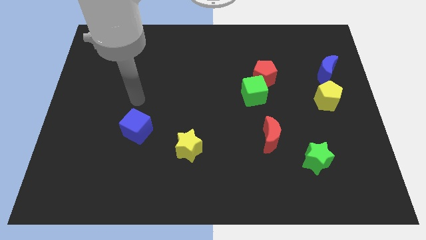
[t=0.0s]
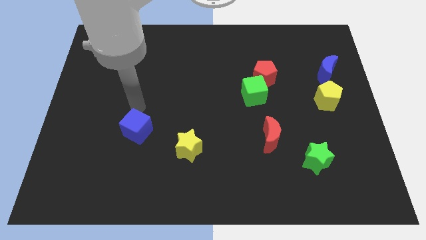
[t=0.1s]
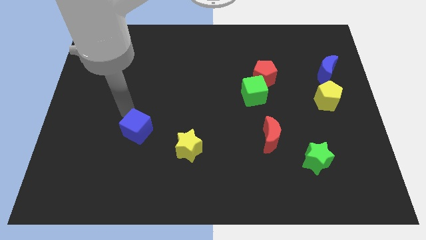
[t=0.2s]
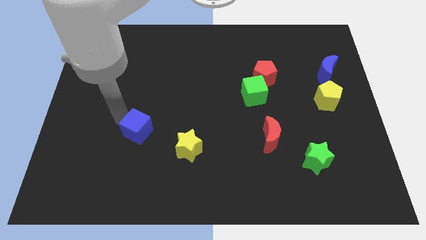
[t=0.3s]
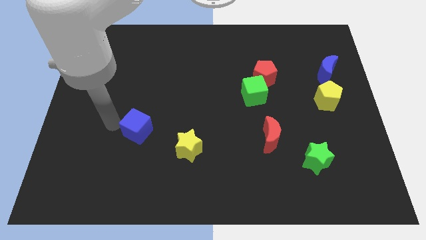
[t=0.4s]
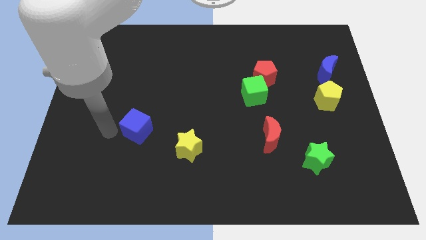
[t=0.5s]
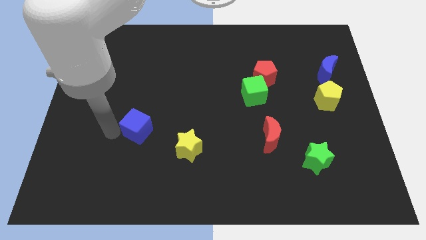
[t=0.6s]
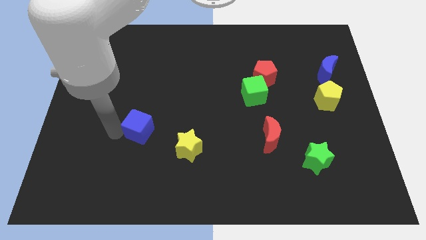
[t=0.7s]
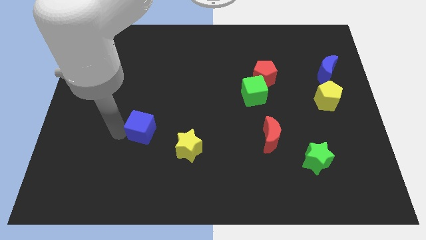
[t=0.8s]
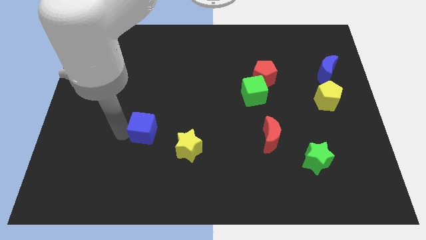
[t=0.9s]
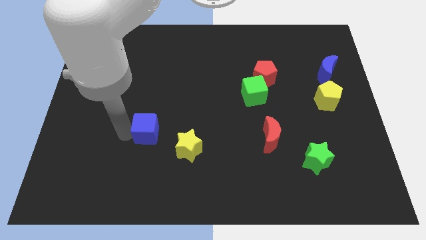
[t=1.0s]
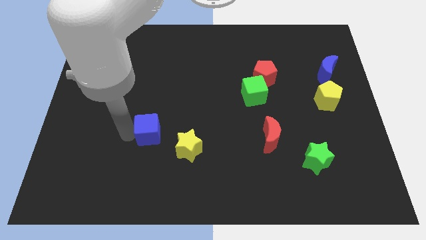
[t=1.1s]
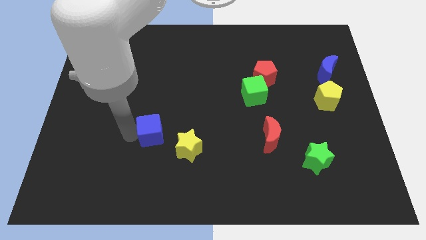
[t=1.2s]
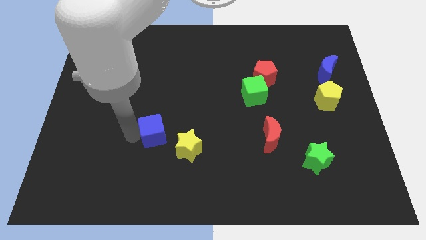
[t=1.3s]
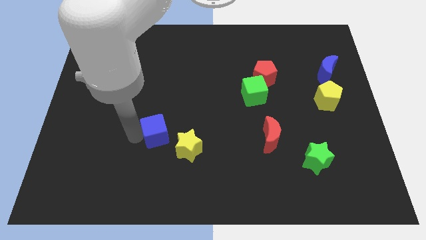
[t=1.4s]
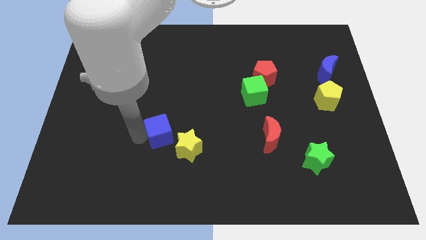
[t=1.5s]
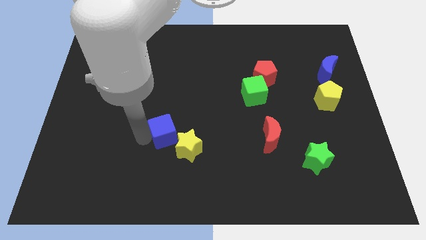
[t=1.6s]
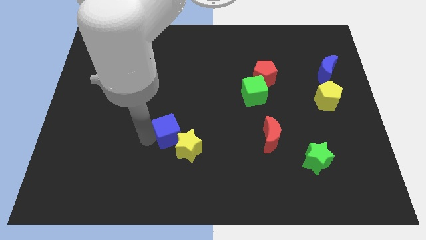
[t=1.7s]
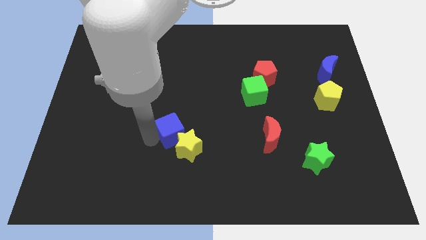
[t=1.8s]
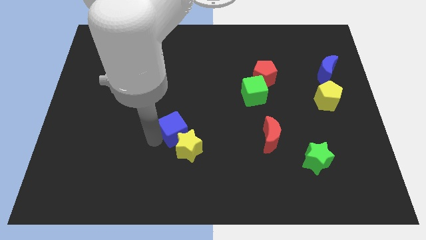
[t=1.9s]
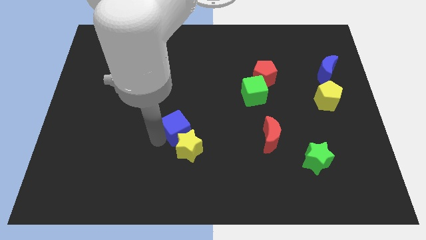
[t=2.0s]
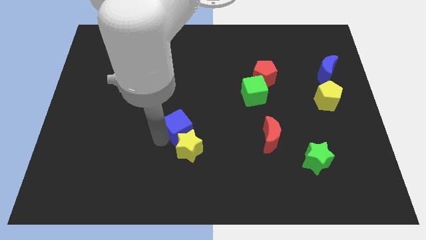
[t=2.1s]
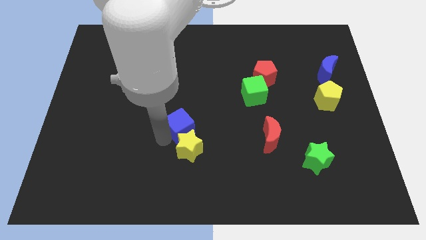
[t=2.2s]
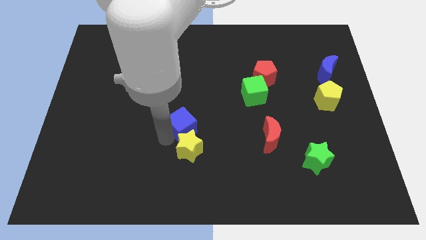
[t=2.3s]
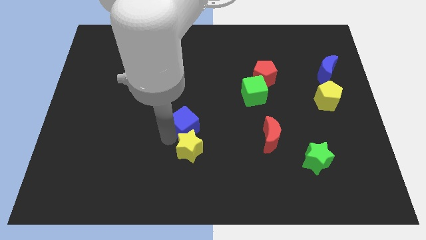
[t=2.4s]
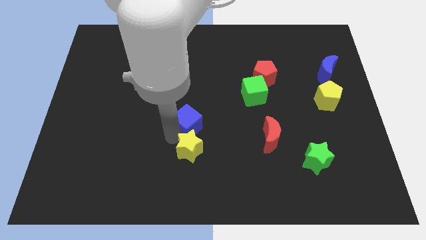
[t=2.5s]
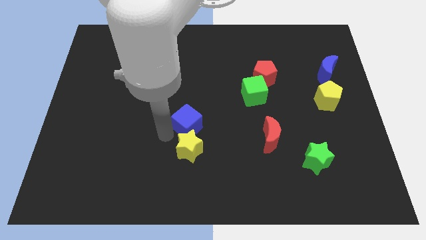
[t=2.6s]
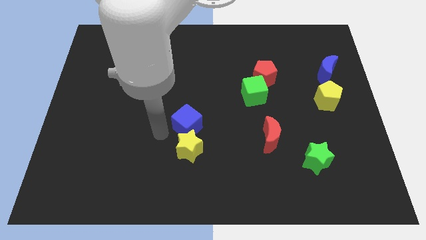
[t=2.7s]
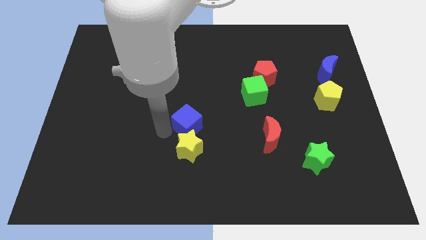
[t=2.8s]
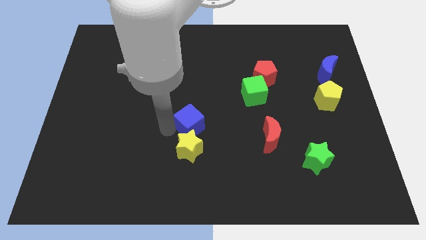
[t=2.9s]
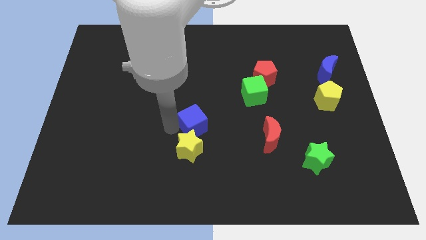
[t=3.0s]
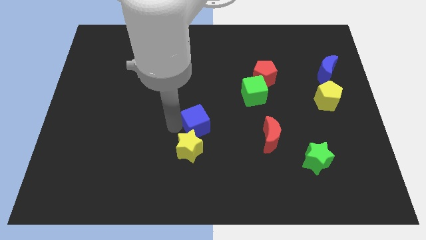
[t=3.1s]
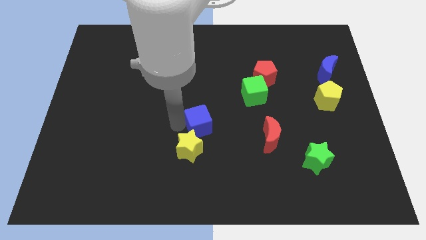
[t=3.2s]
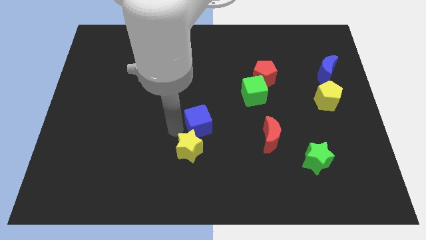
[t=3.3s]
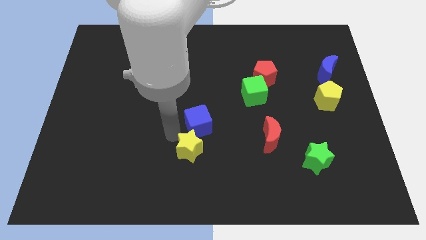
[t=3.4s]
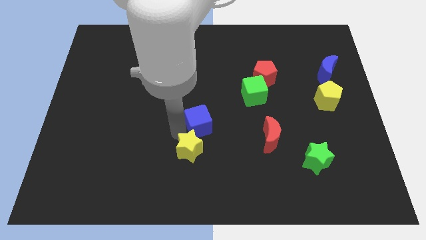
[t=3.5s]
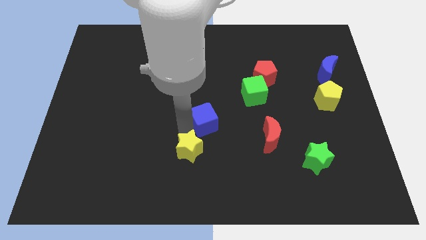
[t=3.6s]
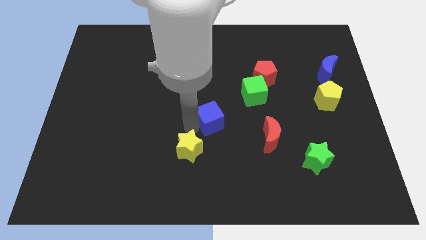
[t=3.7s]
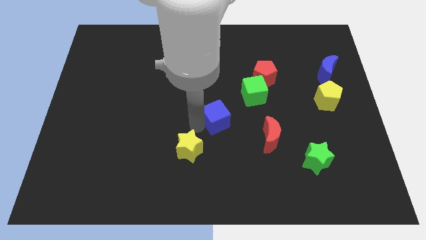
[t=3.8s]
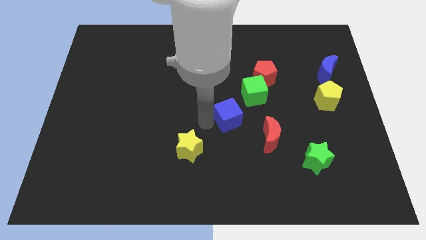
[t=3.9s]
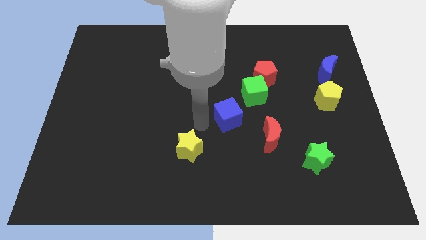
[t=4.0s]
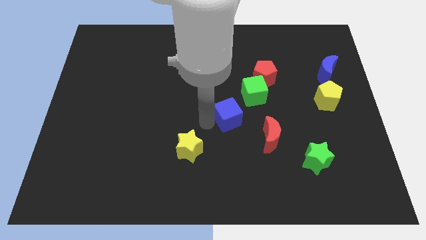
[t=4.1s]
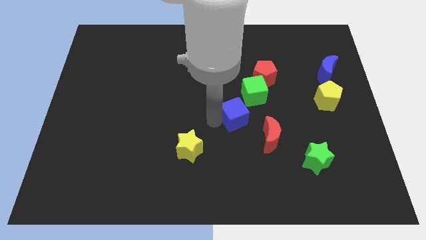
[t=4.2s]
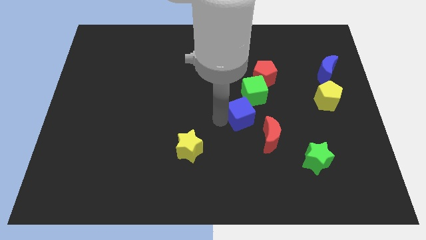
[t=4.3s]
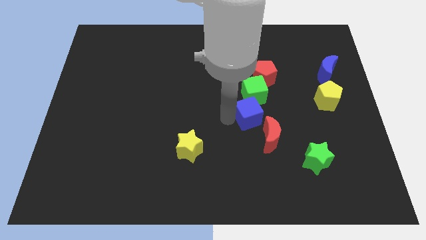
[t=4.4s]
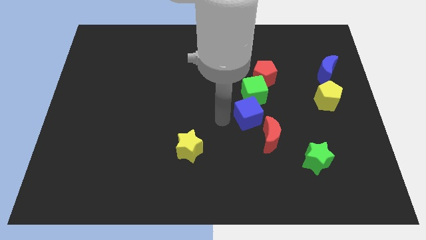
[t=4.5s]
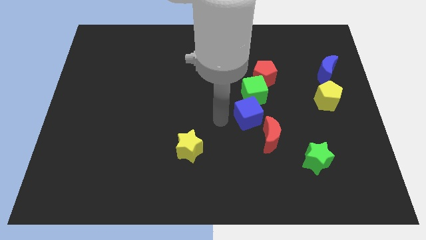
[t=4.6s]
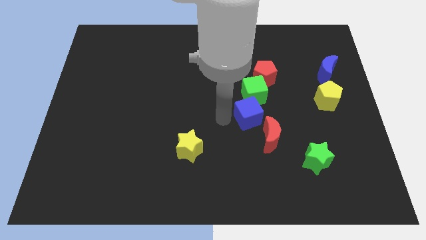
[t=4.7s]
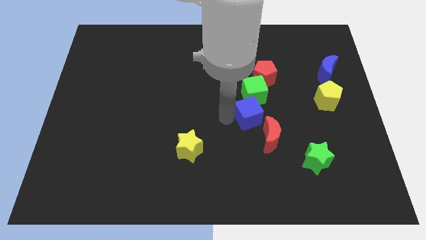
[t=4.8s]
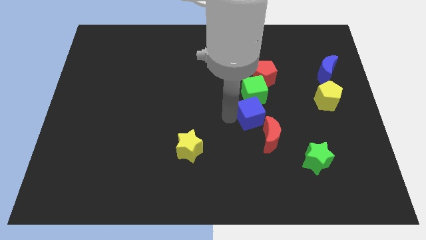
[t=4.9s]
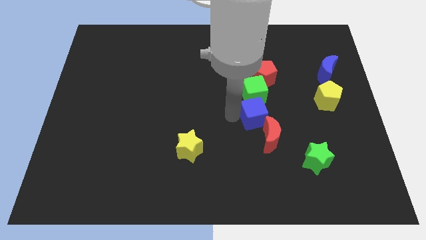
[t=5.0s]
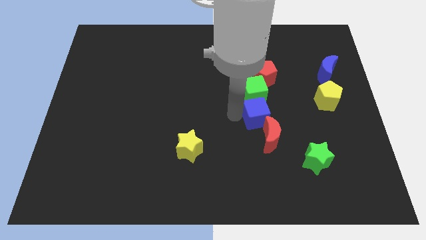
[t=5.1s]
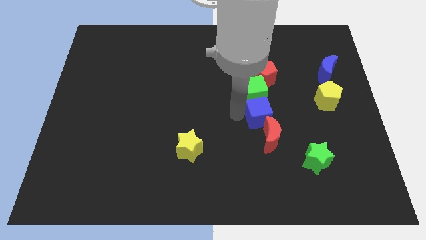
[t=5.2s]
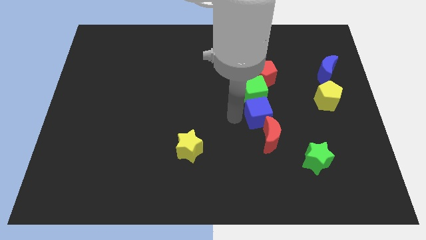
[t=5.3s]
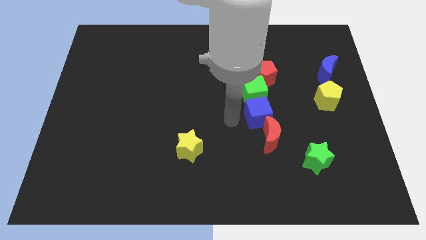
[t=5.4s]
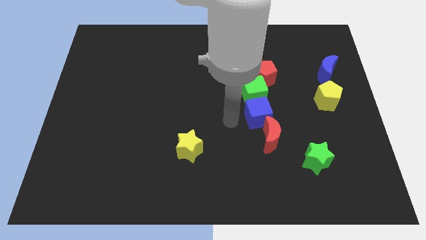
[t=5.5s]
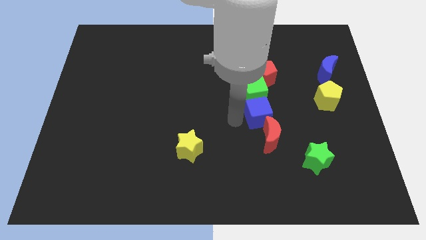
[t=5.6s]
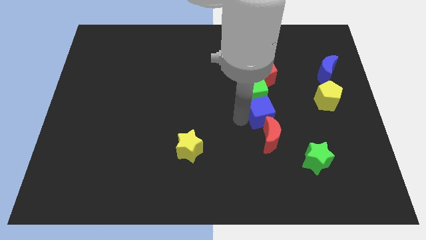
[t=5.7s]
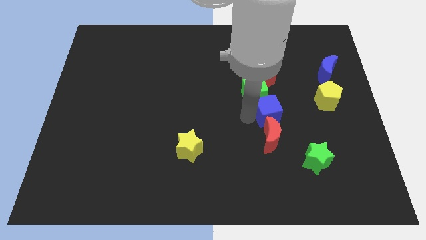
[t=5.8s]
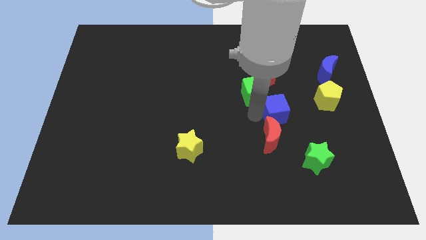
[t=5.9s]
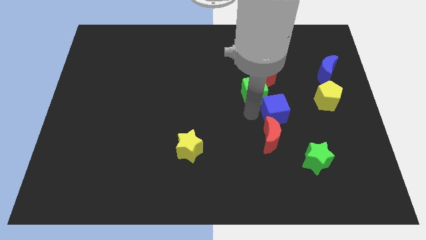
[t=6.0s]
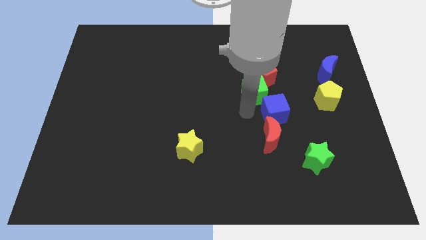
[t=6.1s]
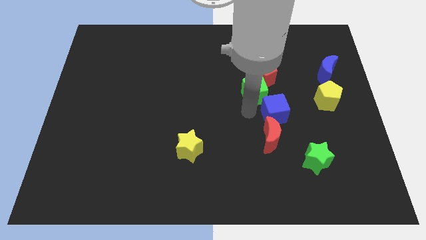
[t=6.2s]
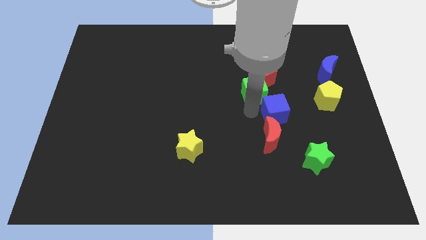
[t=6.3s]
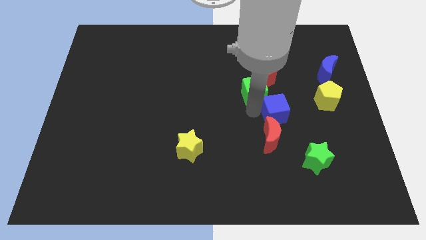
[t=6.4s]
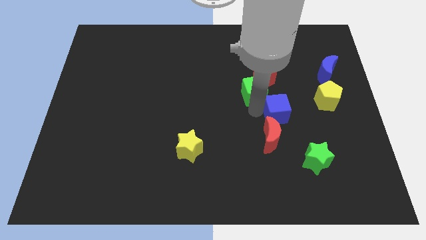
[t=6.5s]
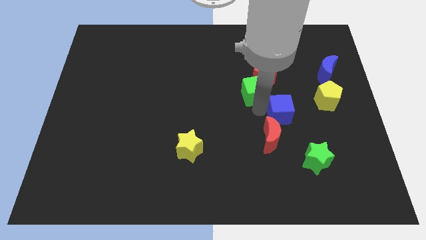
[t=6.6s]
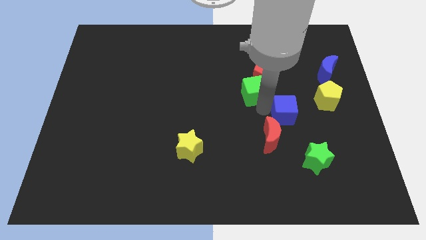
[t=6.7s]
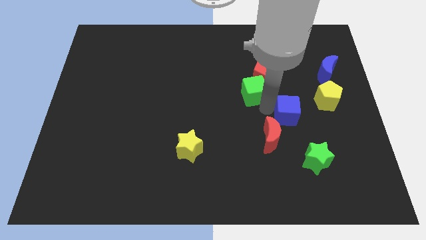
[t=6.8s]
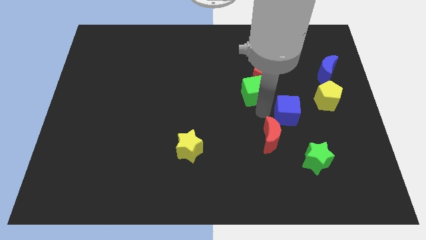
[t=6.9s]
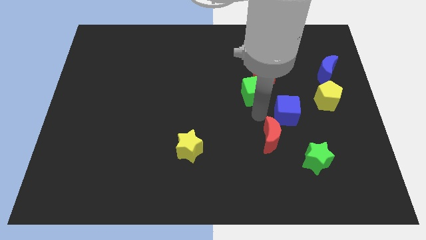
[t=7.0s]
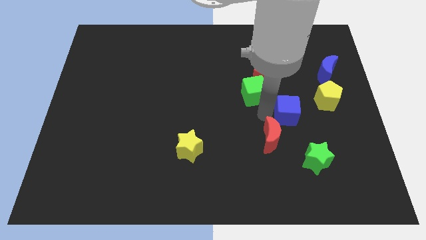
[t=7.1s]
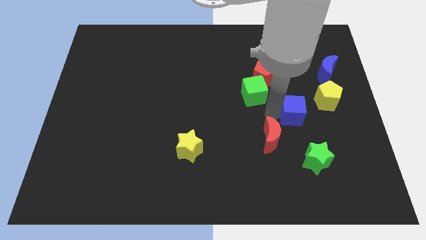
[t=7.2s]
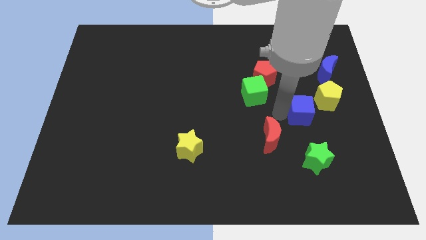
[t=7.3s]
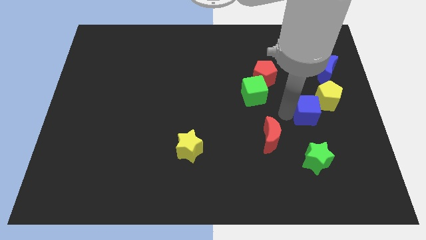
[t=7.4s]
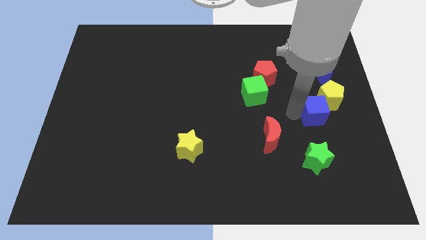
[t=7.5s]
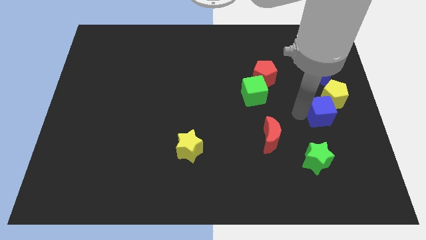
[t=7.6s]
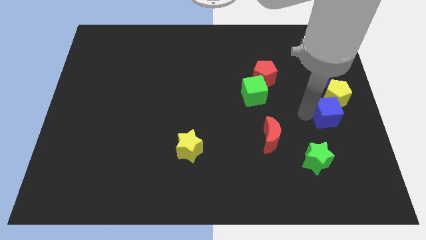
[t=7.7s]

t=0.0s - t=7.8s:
slide the blue cube to the right side of the board
